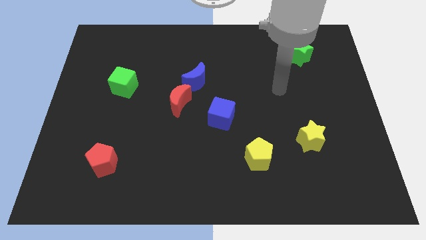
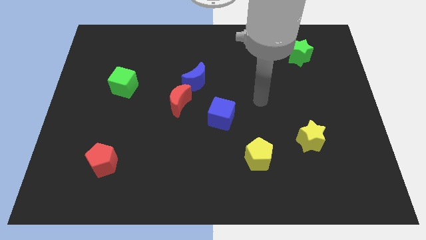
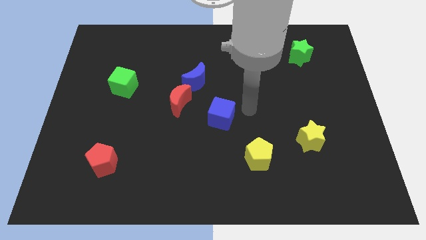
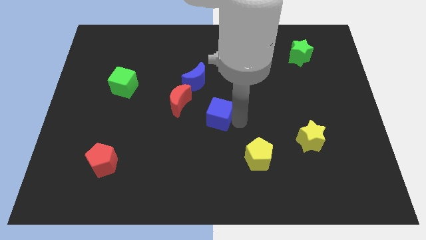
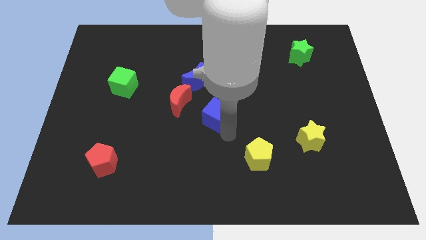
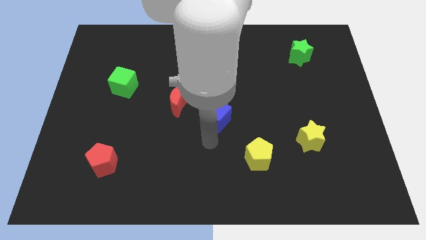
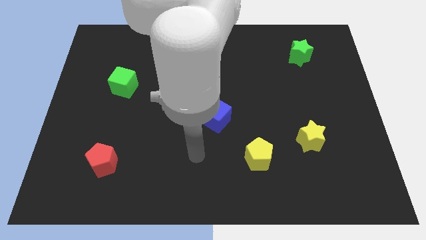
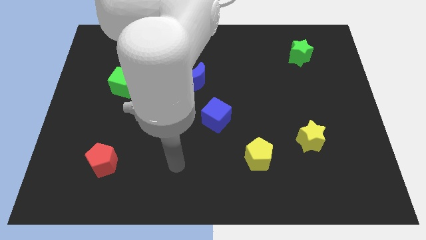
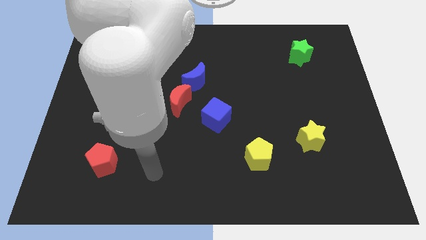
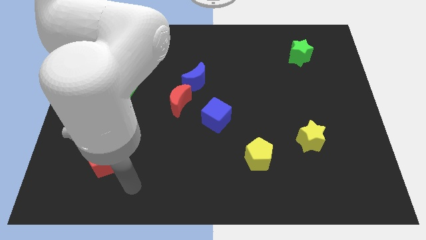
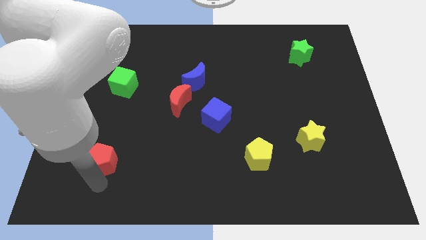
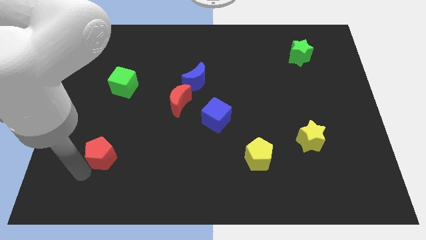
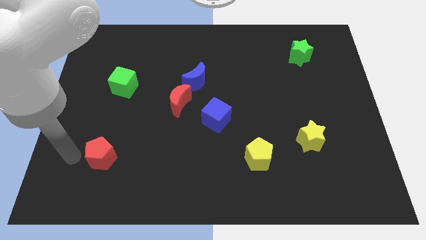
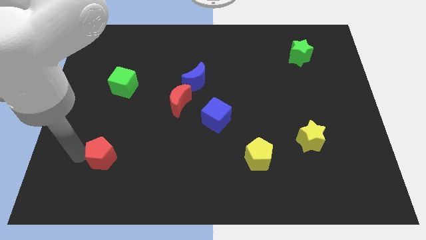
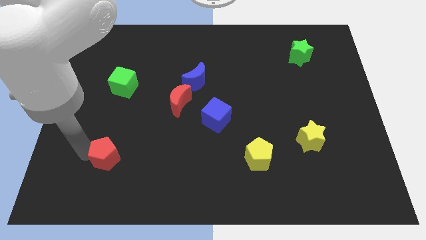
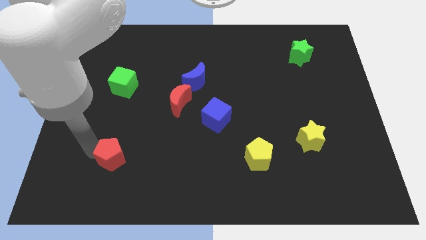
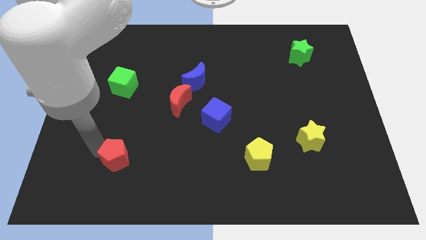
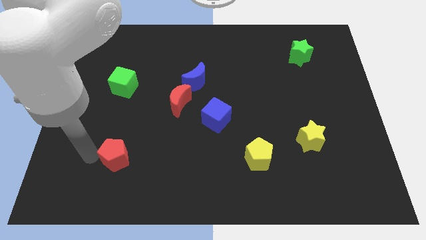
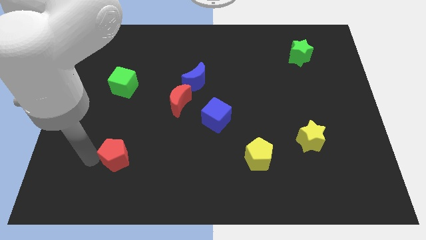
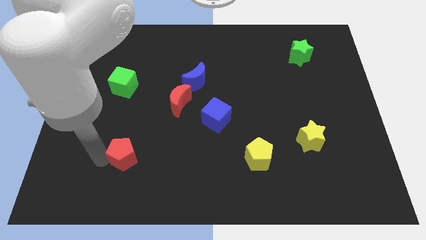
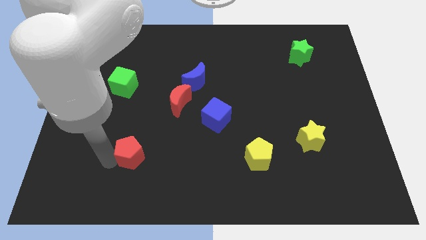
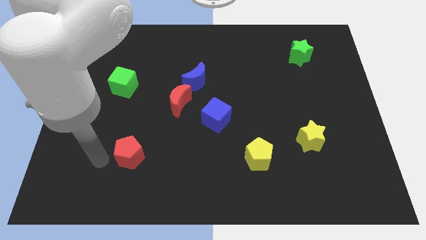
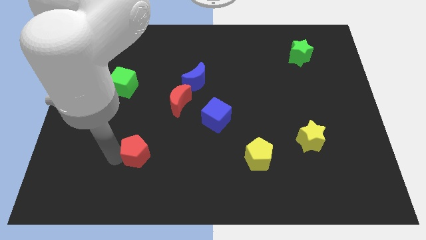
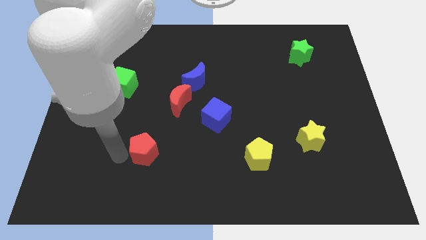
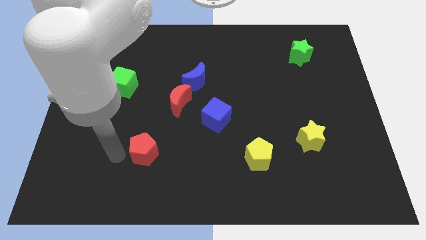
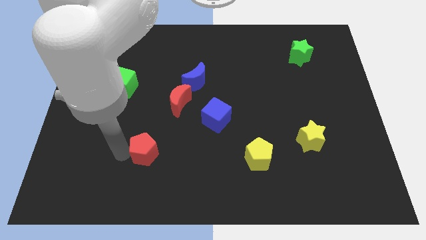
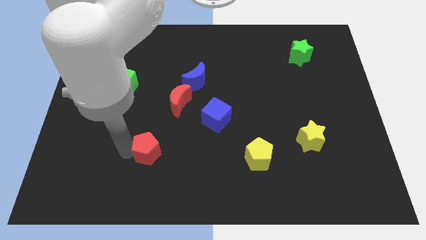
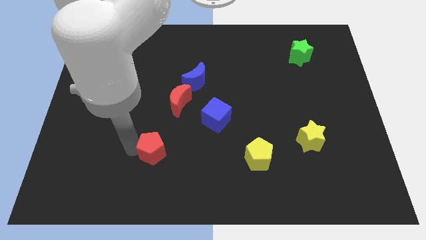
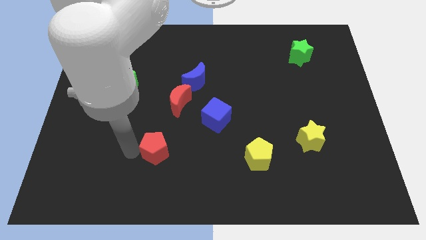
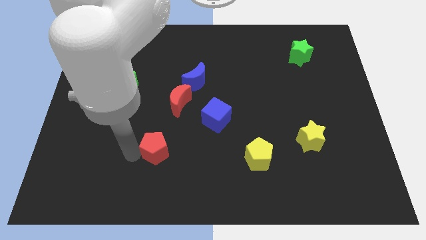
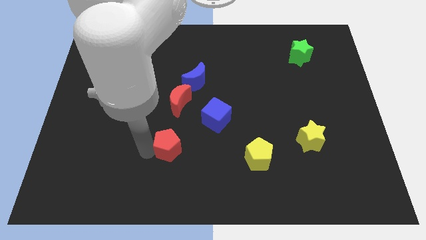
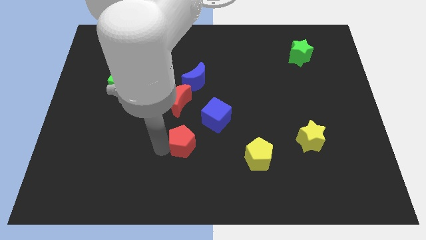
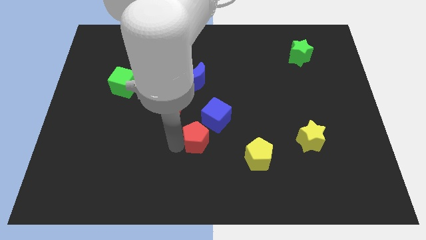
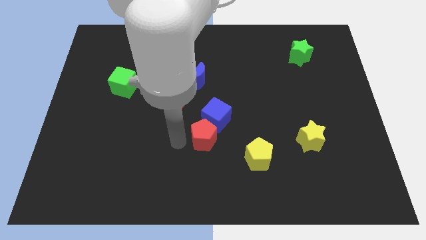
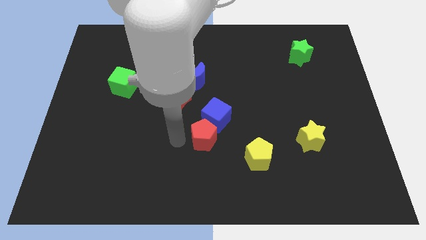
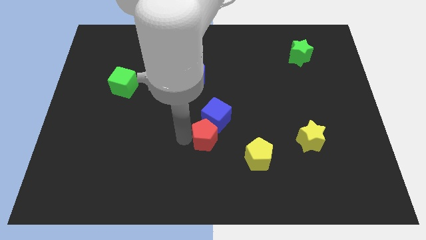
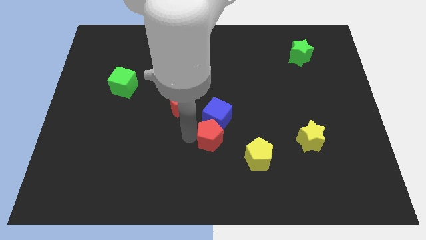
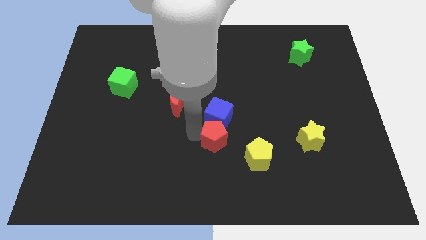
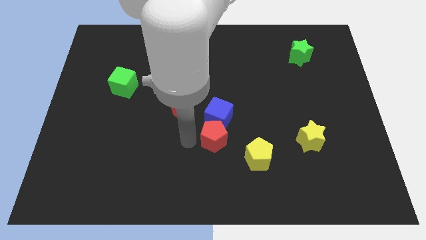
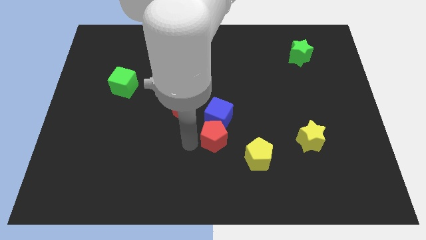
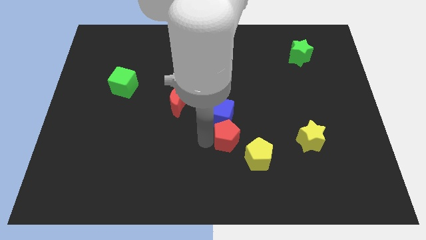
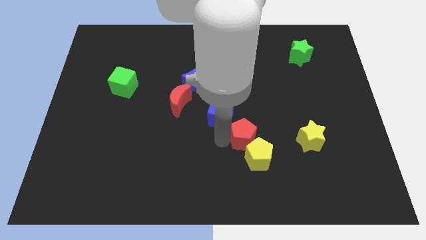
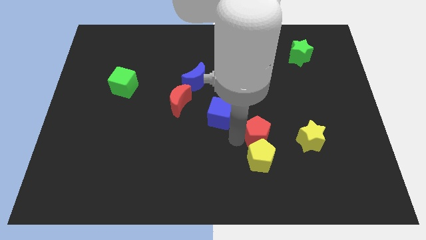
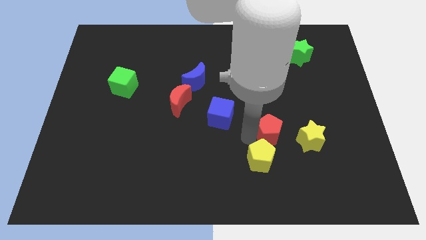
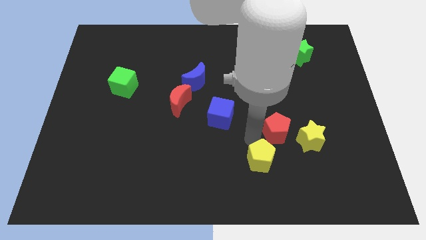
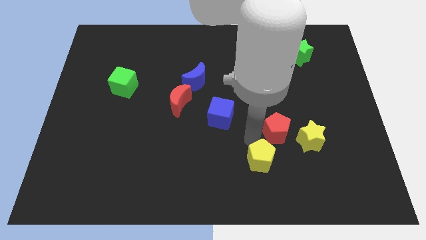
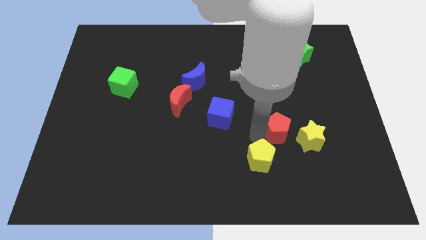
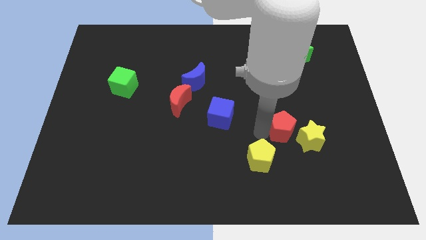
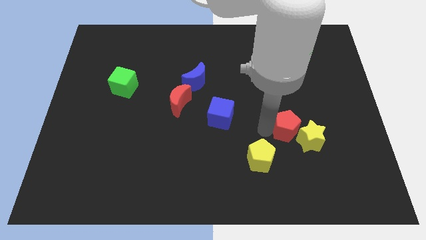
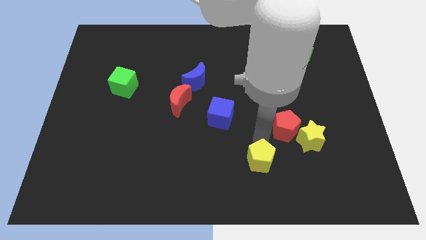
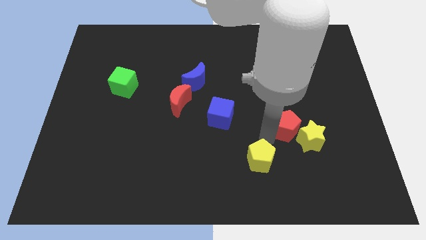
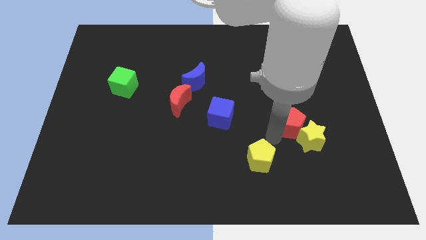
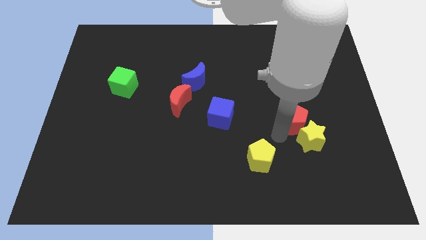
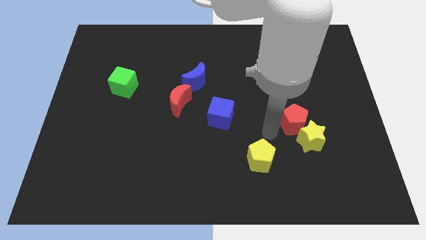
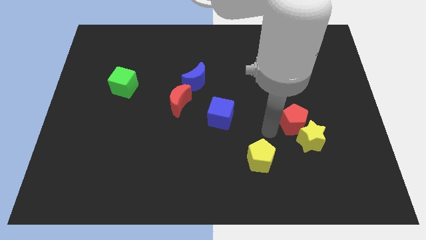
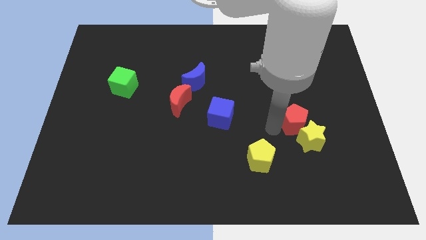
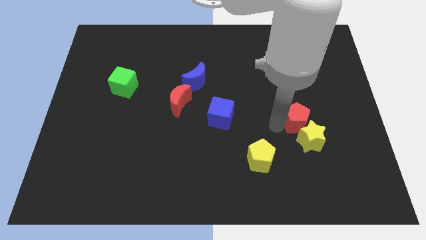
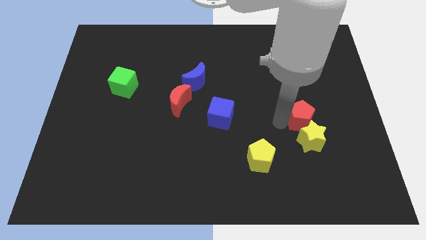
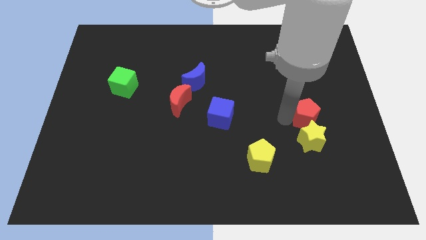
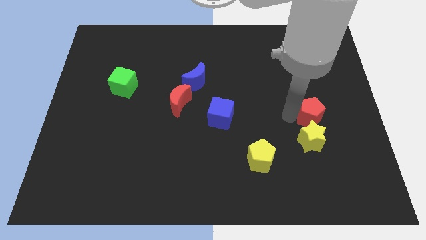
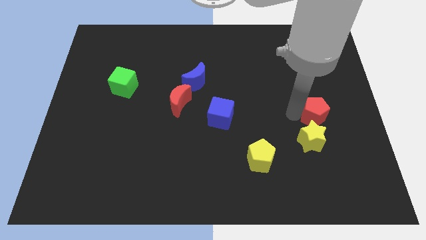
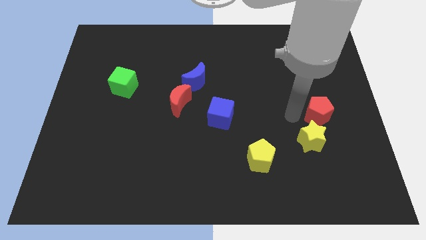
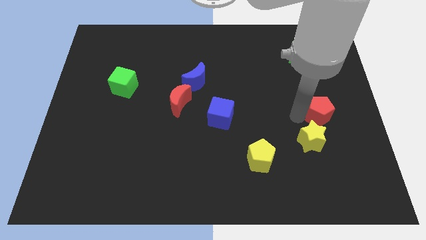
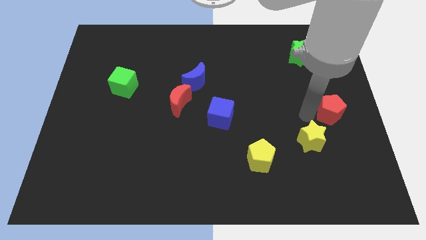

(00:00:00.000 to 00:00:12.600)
put the red pentagon to the right side
